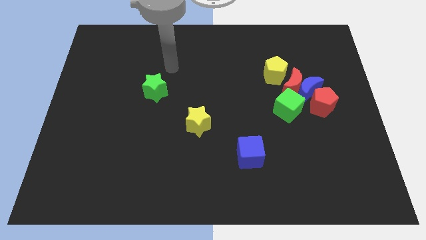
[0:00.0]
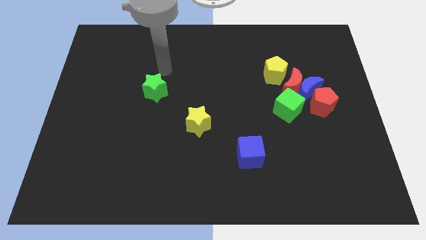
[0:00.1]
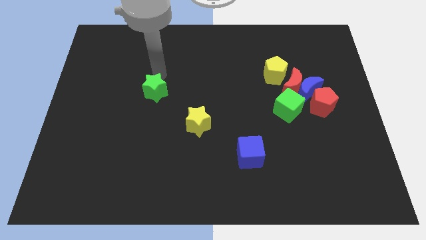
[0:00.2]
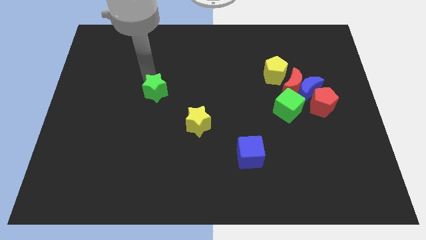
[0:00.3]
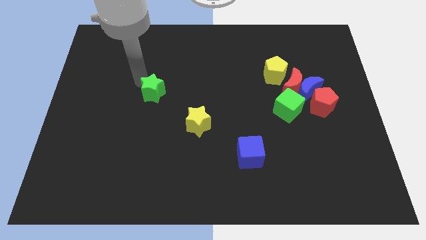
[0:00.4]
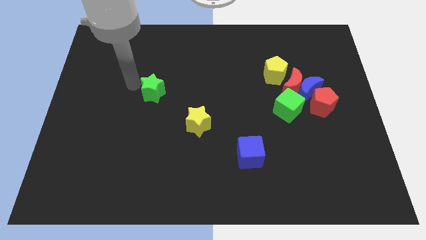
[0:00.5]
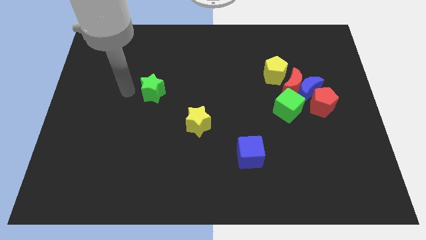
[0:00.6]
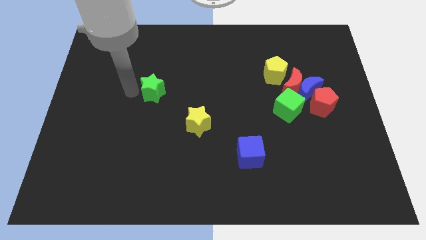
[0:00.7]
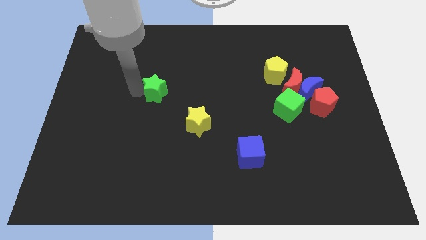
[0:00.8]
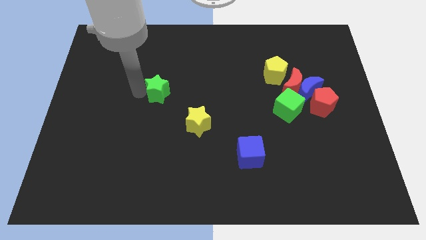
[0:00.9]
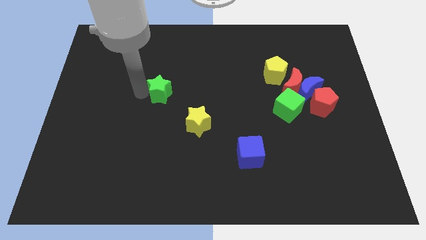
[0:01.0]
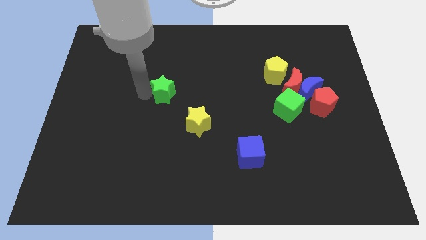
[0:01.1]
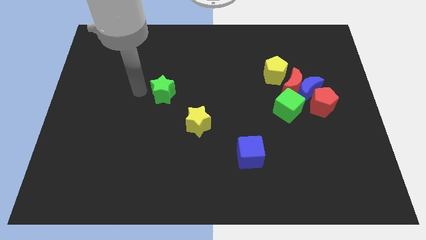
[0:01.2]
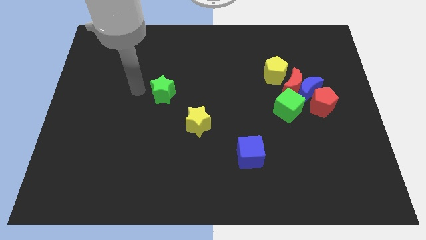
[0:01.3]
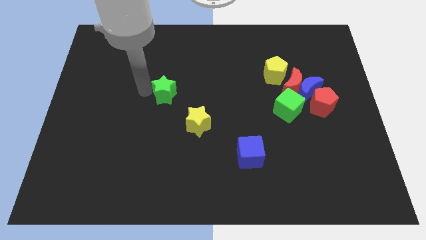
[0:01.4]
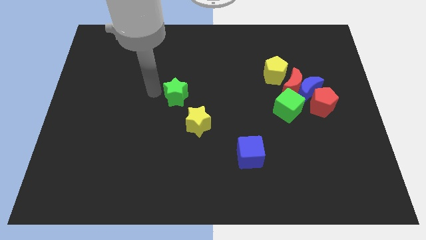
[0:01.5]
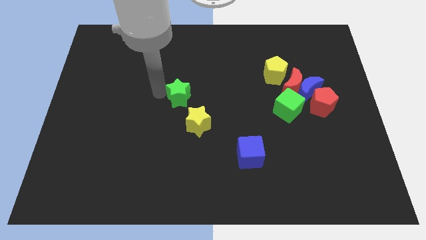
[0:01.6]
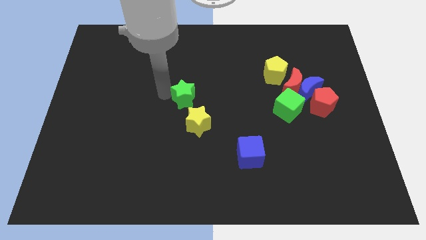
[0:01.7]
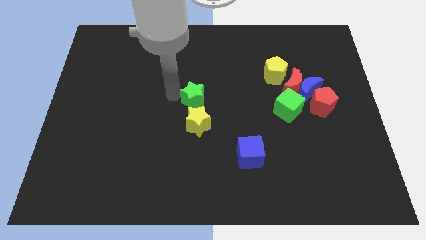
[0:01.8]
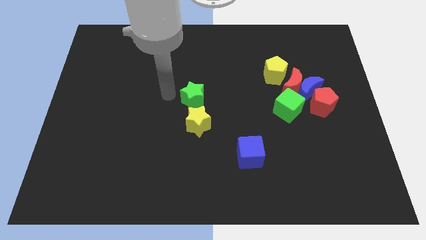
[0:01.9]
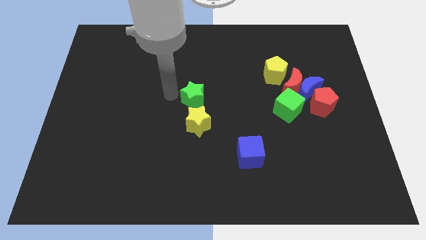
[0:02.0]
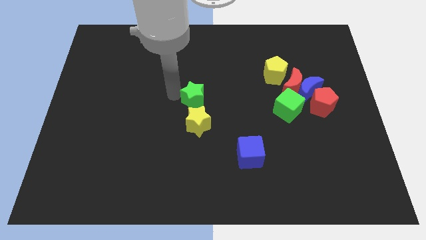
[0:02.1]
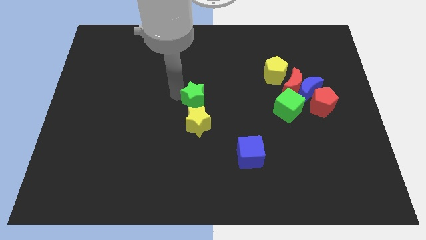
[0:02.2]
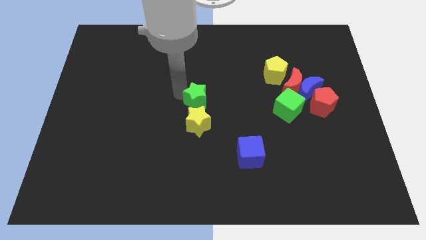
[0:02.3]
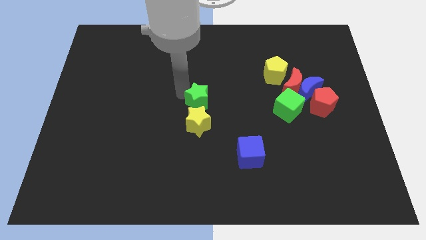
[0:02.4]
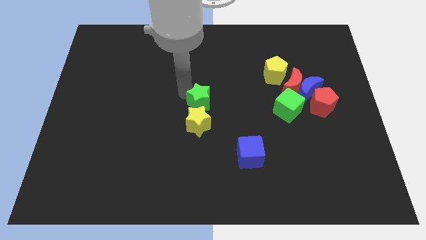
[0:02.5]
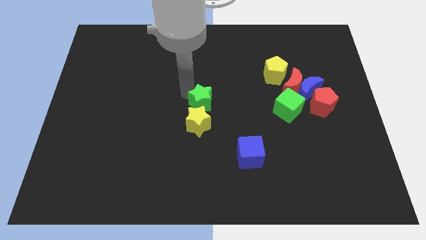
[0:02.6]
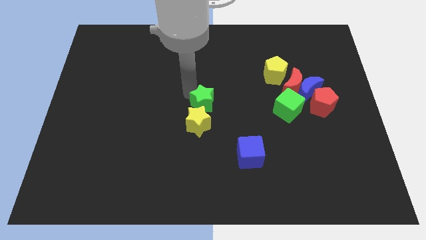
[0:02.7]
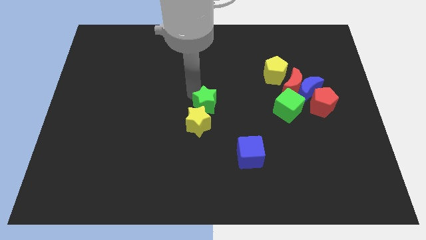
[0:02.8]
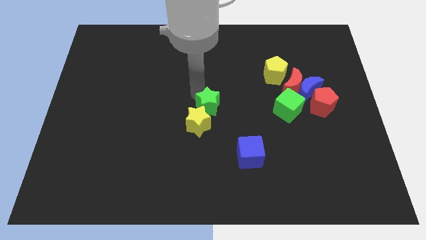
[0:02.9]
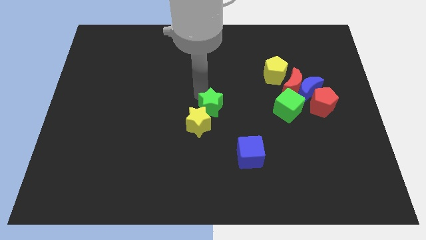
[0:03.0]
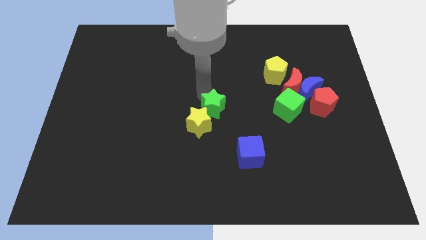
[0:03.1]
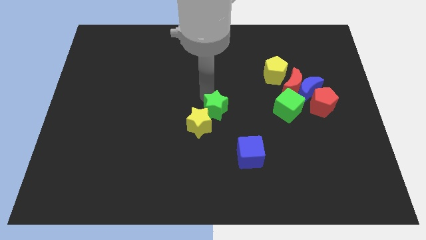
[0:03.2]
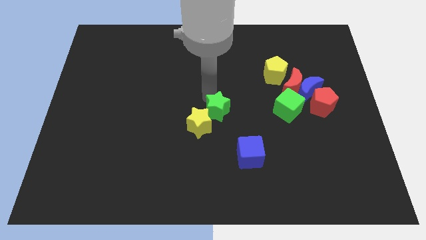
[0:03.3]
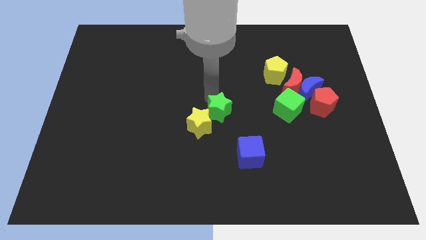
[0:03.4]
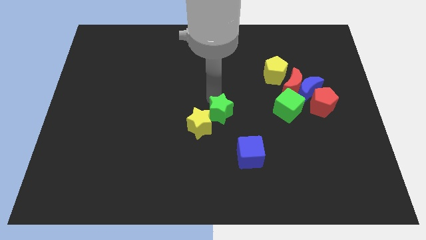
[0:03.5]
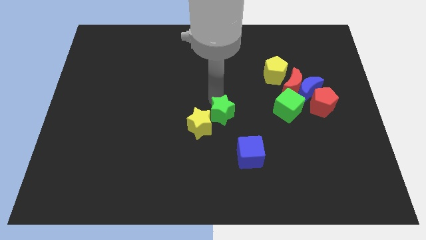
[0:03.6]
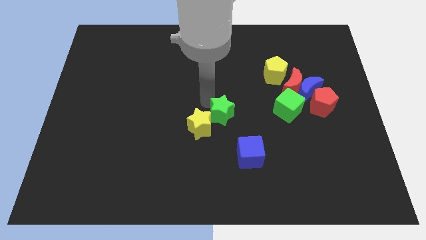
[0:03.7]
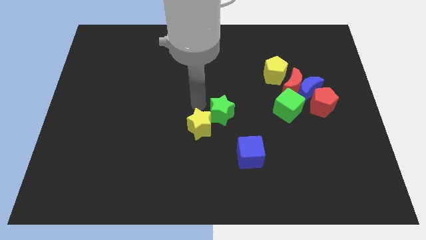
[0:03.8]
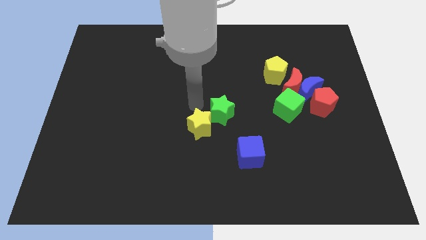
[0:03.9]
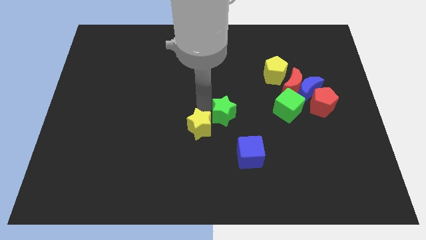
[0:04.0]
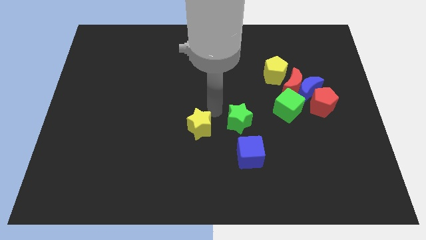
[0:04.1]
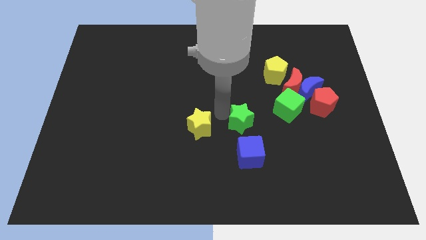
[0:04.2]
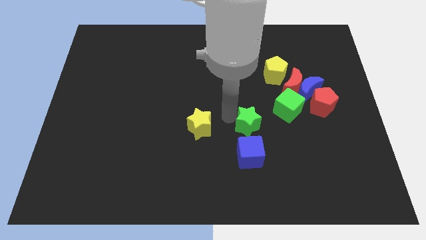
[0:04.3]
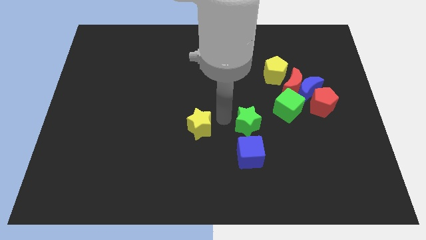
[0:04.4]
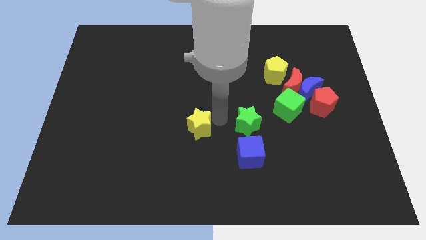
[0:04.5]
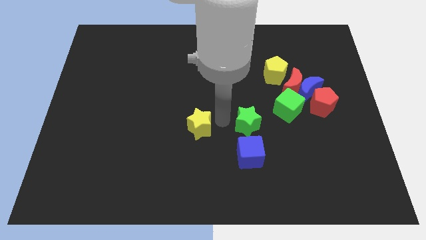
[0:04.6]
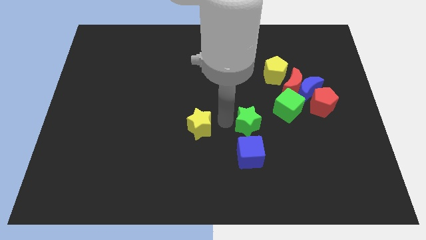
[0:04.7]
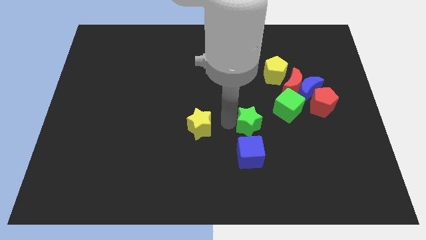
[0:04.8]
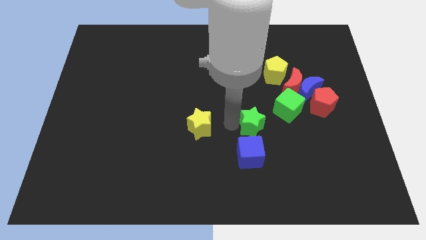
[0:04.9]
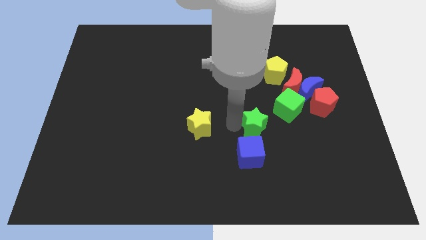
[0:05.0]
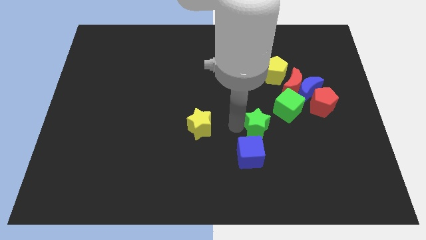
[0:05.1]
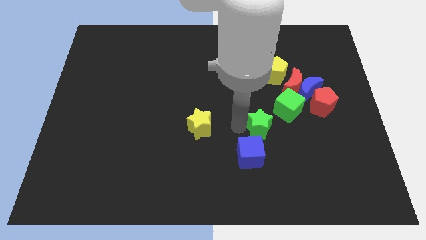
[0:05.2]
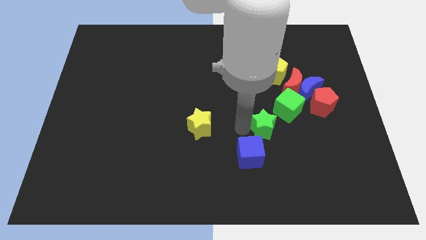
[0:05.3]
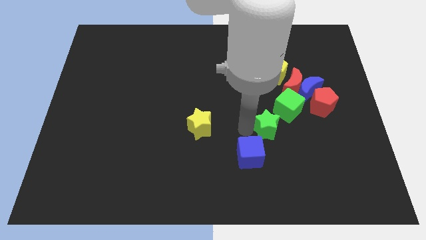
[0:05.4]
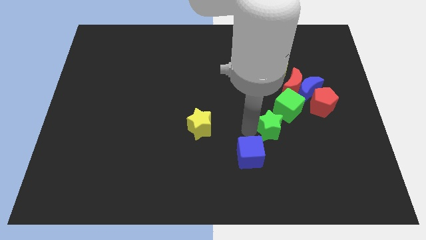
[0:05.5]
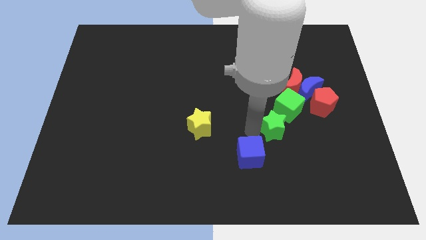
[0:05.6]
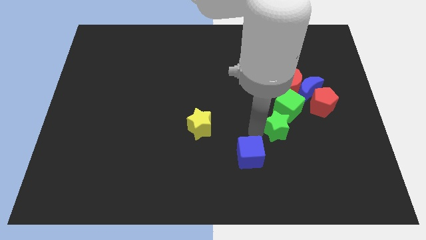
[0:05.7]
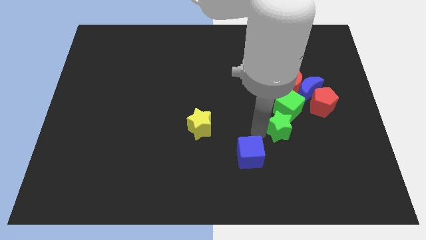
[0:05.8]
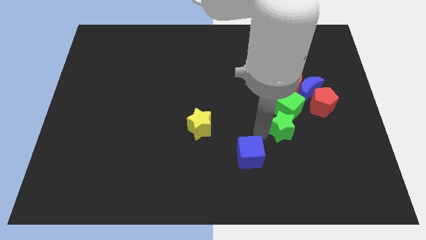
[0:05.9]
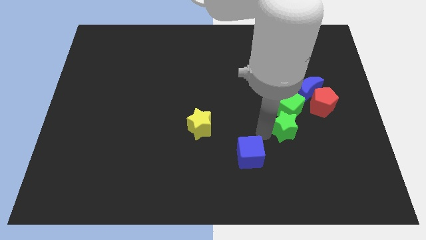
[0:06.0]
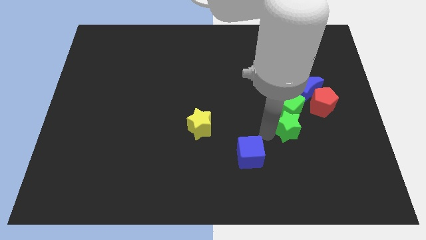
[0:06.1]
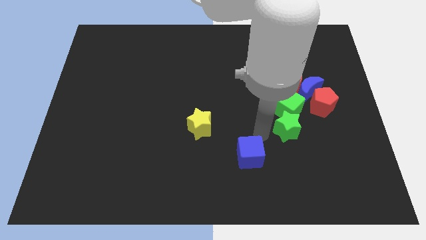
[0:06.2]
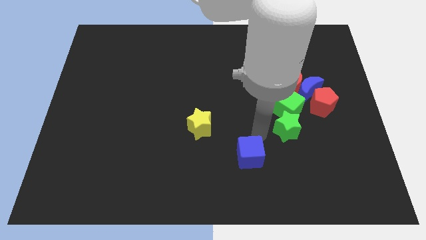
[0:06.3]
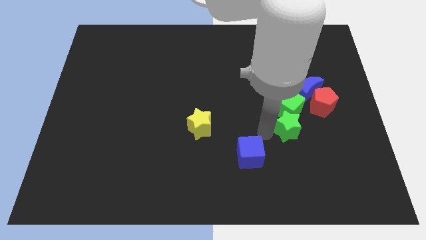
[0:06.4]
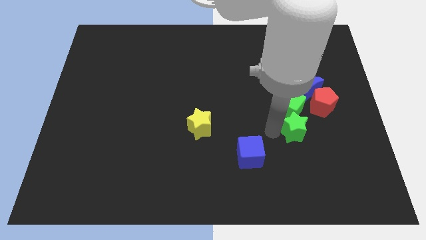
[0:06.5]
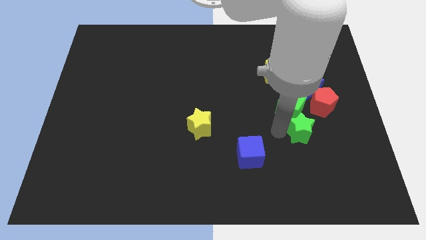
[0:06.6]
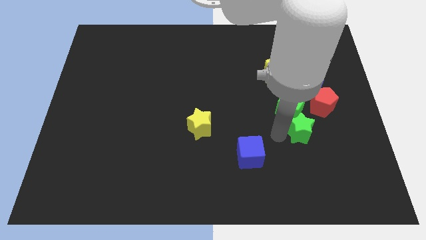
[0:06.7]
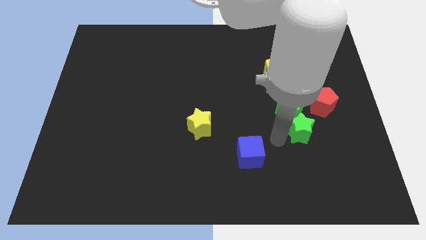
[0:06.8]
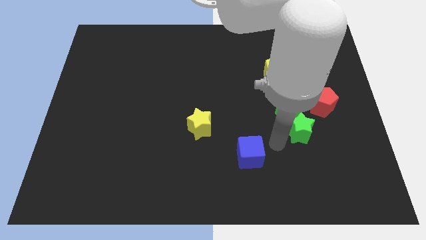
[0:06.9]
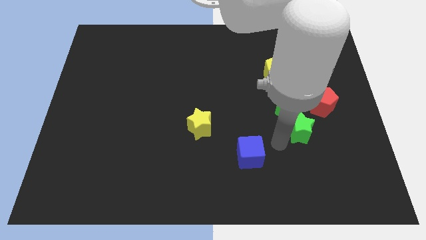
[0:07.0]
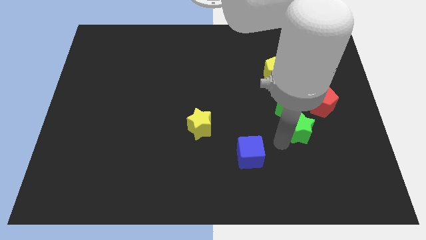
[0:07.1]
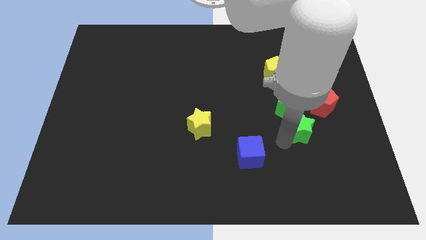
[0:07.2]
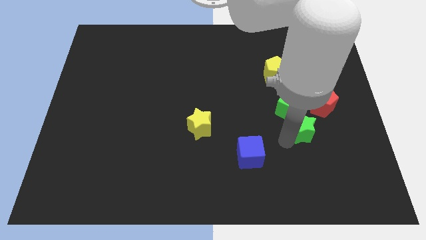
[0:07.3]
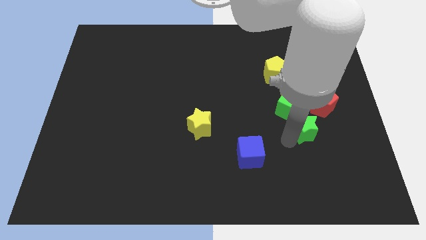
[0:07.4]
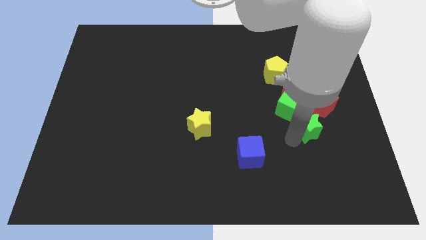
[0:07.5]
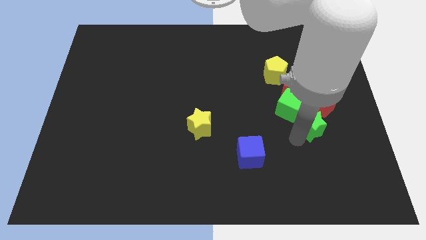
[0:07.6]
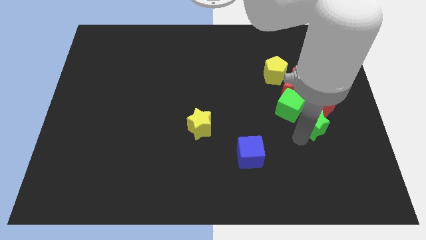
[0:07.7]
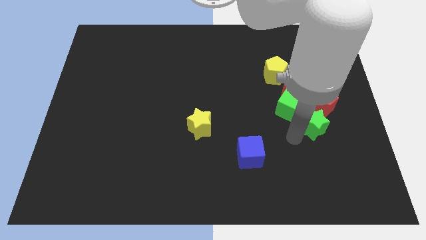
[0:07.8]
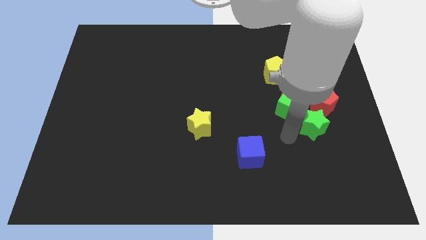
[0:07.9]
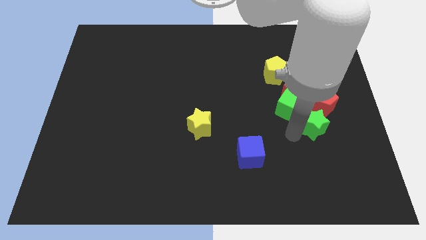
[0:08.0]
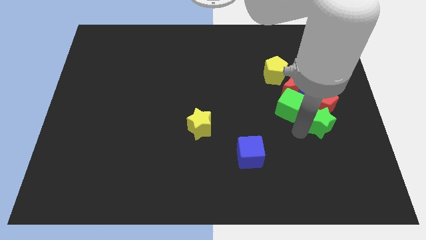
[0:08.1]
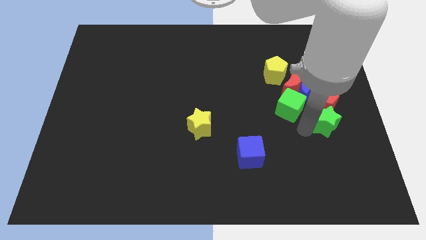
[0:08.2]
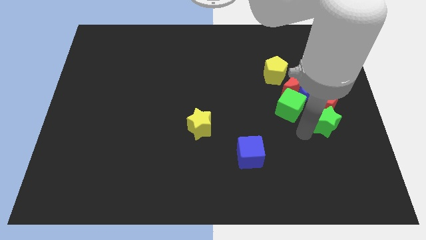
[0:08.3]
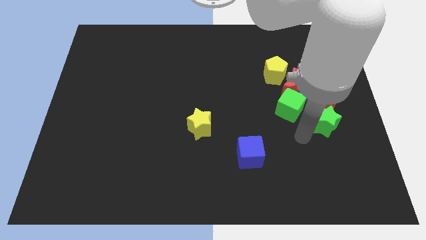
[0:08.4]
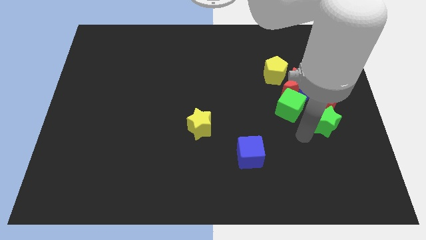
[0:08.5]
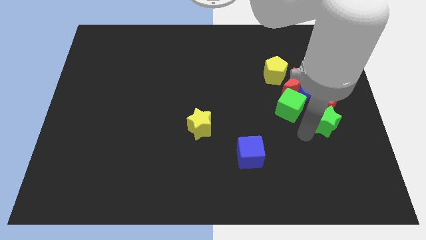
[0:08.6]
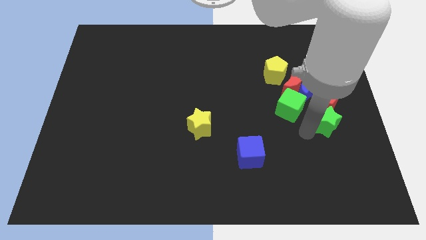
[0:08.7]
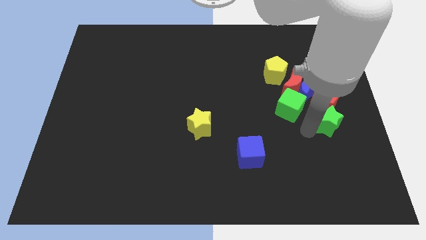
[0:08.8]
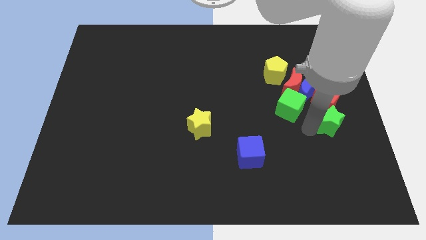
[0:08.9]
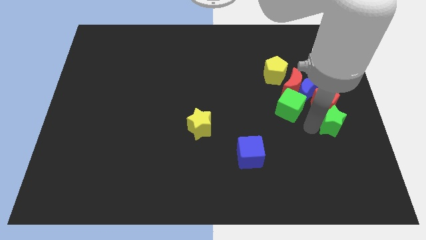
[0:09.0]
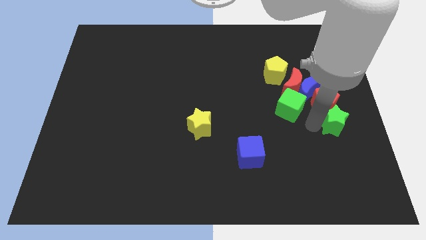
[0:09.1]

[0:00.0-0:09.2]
move the green star to the right side
